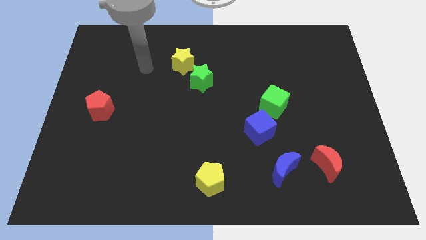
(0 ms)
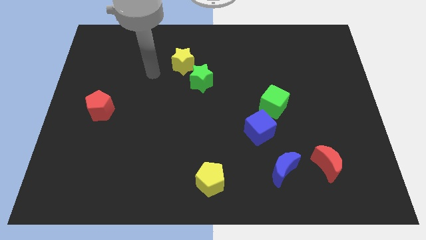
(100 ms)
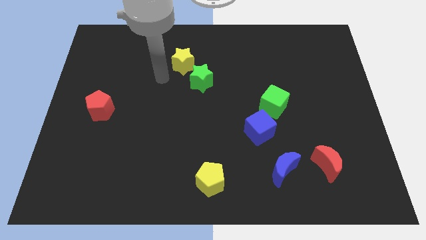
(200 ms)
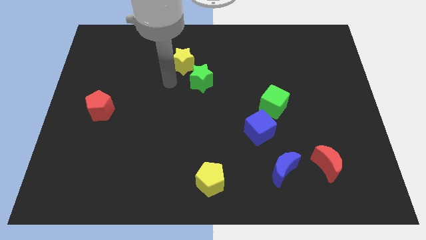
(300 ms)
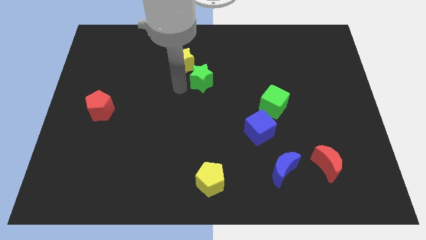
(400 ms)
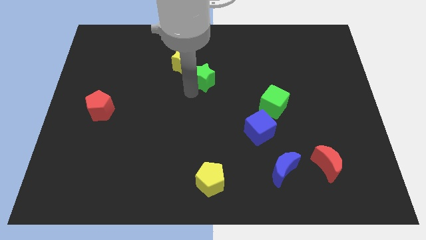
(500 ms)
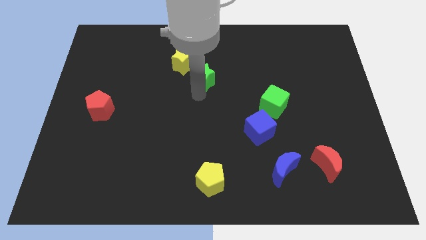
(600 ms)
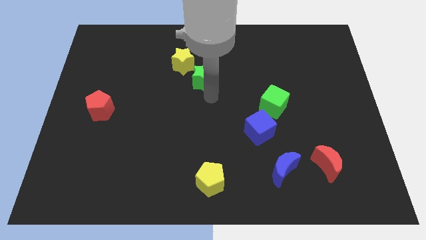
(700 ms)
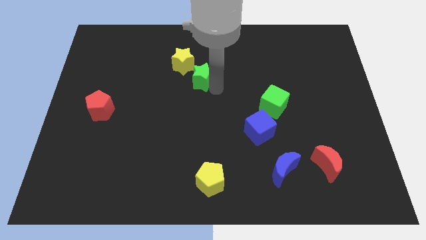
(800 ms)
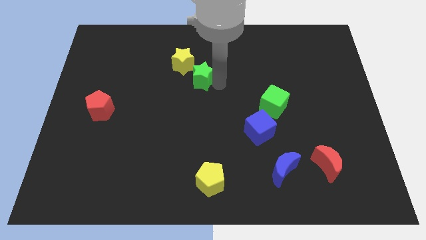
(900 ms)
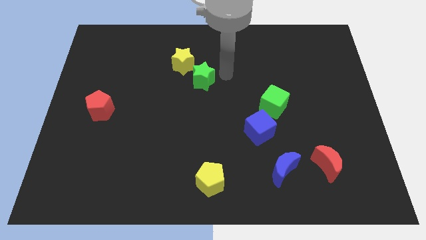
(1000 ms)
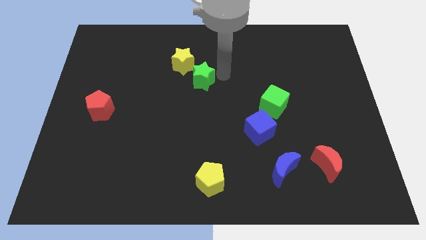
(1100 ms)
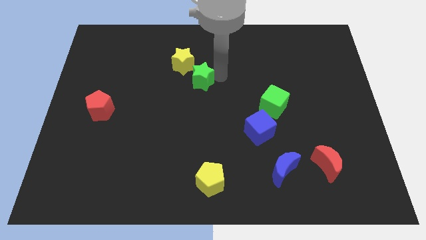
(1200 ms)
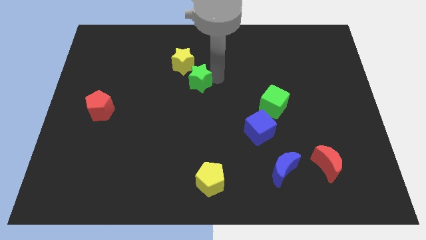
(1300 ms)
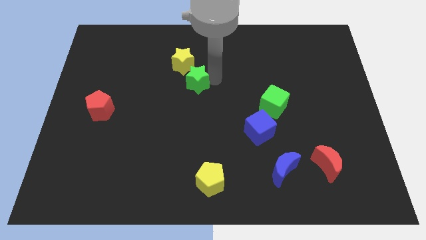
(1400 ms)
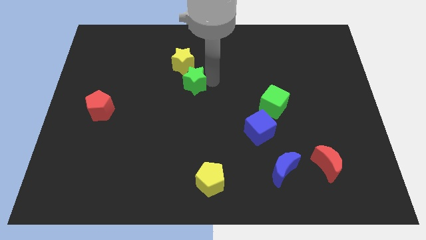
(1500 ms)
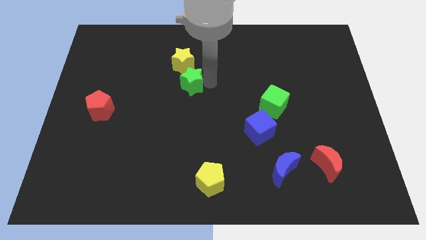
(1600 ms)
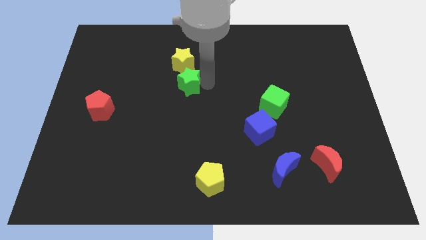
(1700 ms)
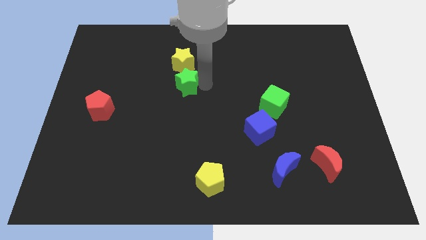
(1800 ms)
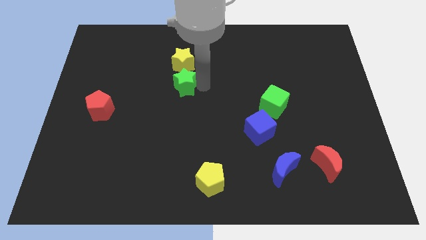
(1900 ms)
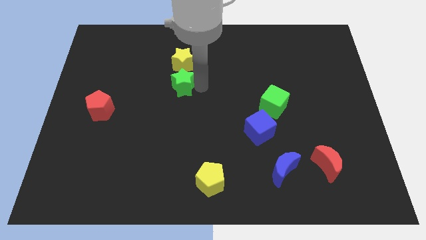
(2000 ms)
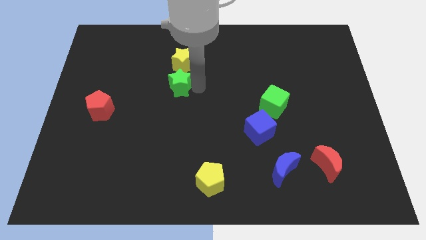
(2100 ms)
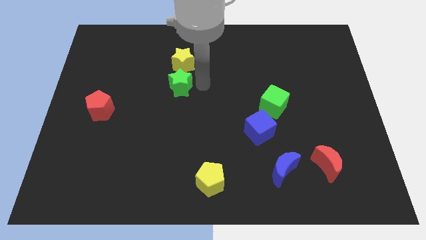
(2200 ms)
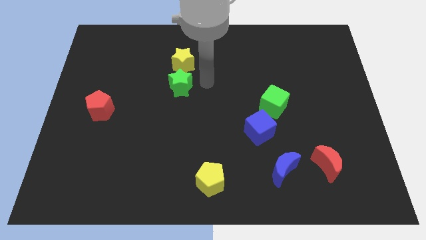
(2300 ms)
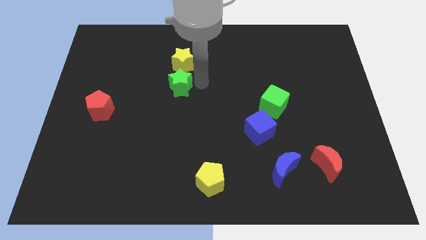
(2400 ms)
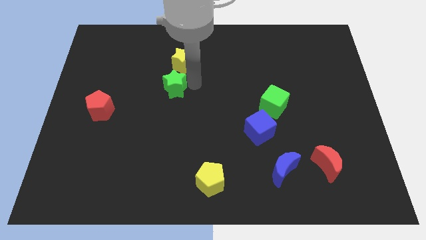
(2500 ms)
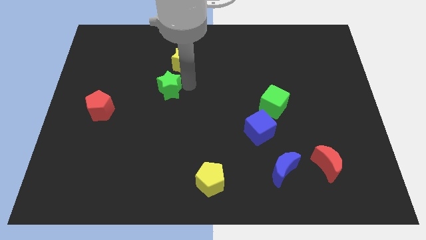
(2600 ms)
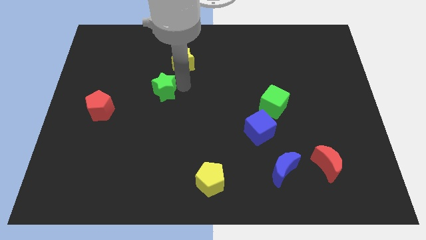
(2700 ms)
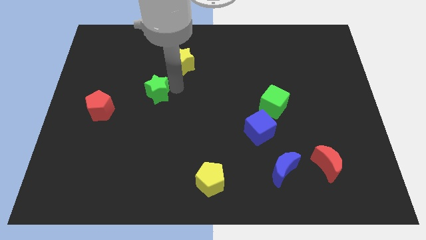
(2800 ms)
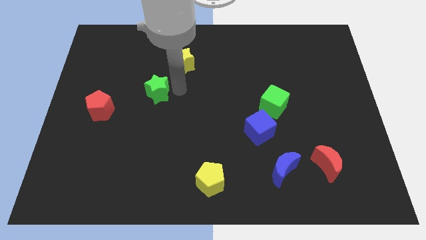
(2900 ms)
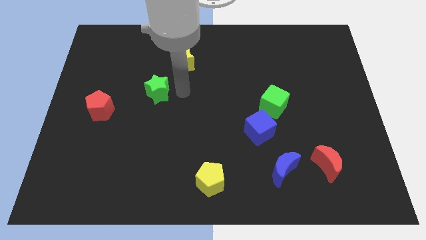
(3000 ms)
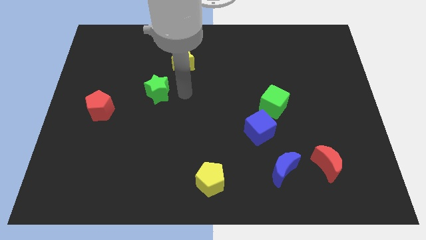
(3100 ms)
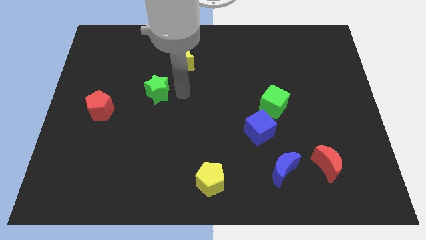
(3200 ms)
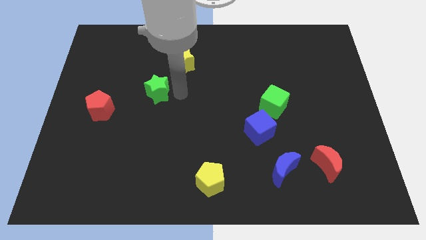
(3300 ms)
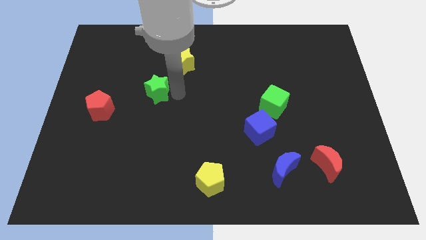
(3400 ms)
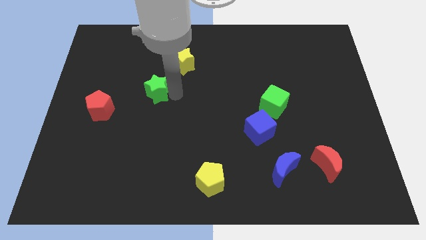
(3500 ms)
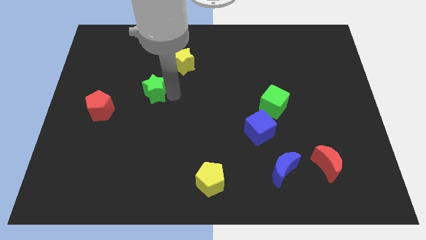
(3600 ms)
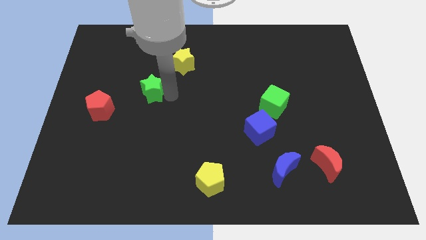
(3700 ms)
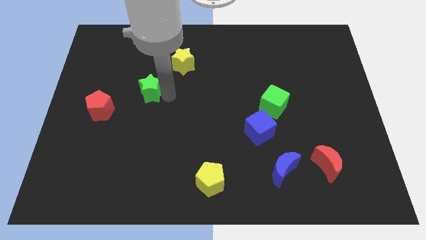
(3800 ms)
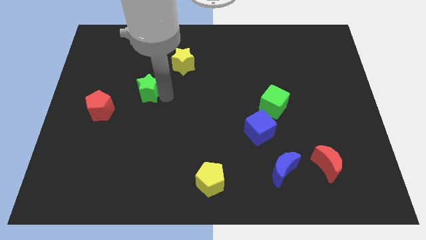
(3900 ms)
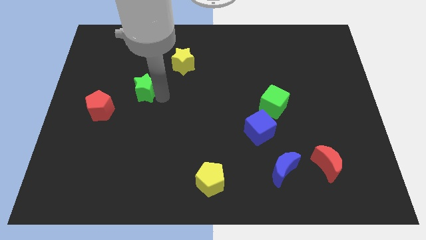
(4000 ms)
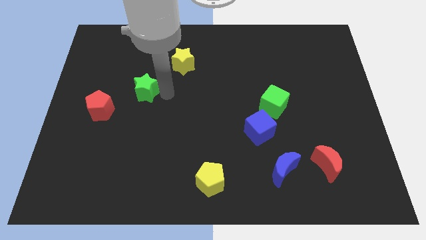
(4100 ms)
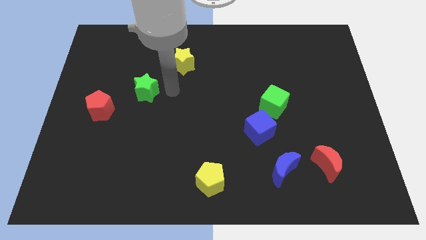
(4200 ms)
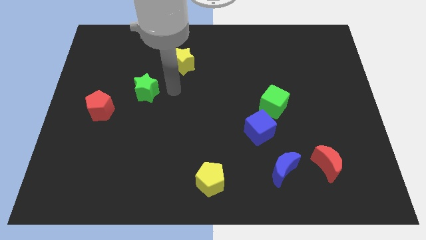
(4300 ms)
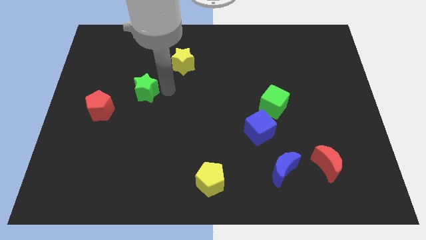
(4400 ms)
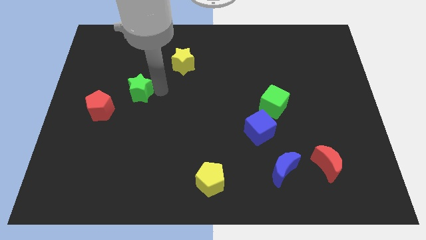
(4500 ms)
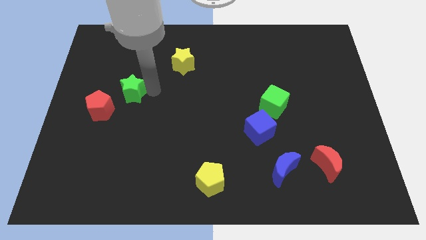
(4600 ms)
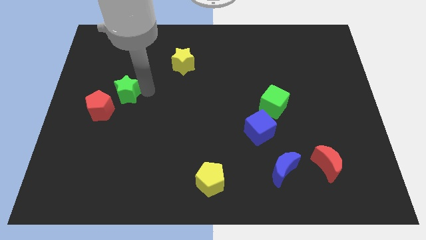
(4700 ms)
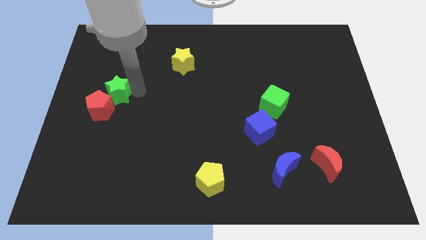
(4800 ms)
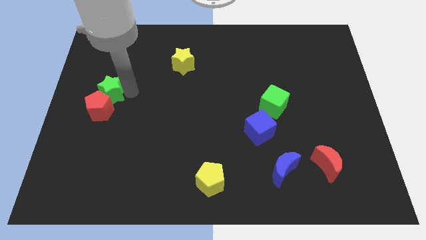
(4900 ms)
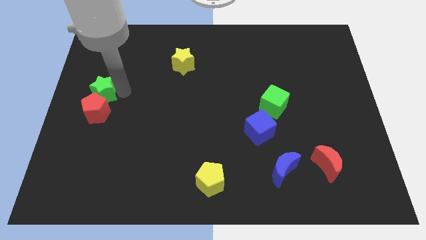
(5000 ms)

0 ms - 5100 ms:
slide the green star to the left side of the board

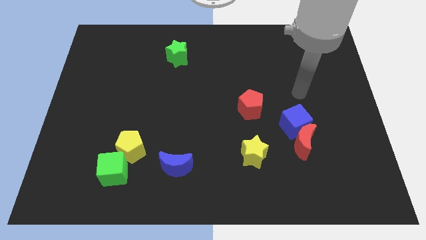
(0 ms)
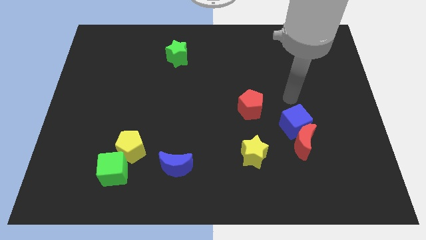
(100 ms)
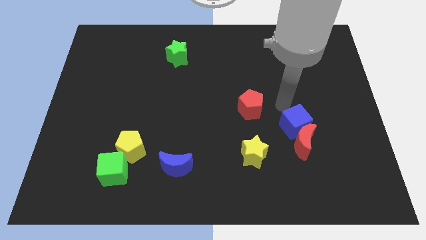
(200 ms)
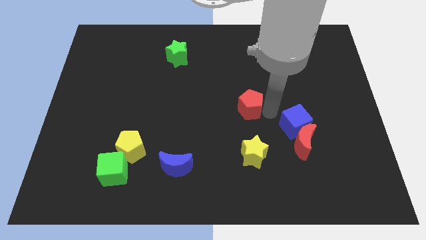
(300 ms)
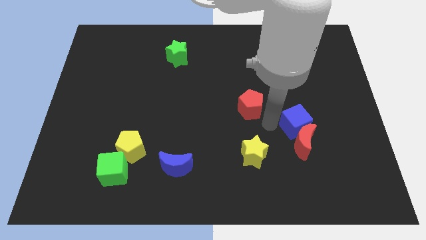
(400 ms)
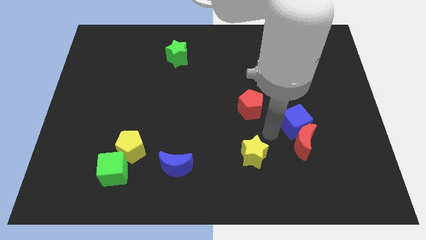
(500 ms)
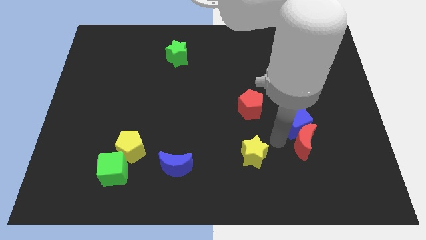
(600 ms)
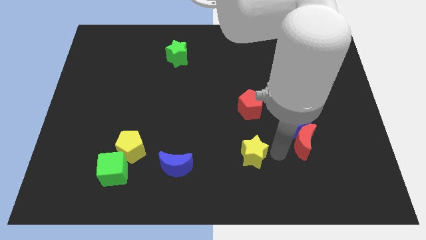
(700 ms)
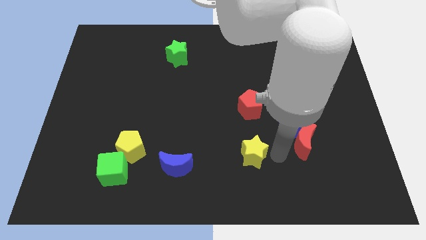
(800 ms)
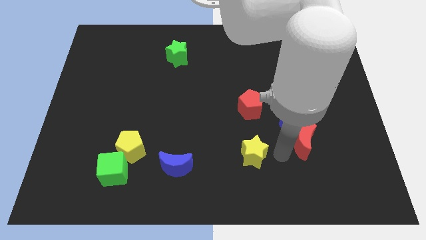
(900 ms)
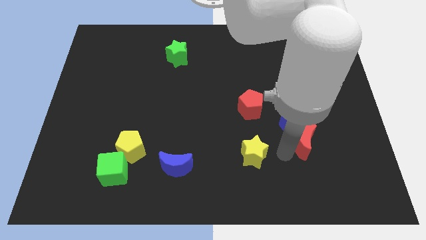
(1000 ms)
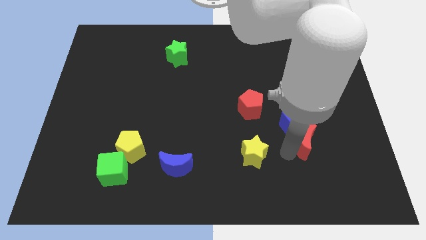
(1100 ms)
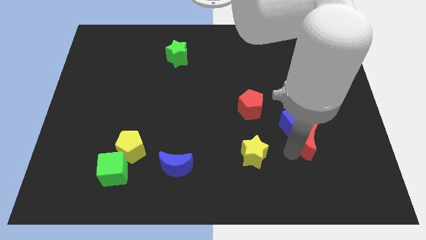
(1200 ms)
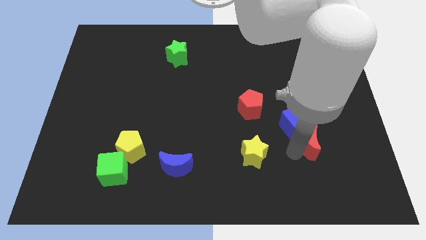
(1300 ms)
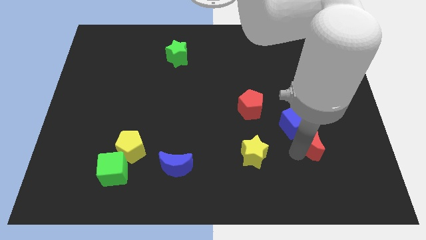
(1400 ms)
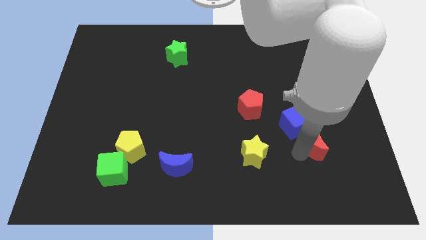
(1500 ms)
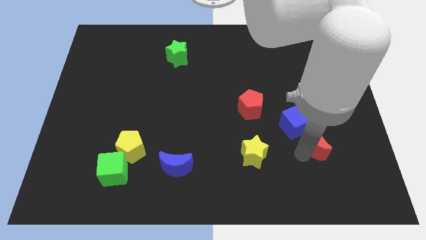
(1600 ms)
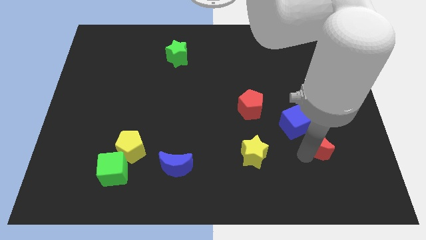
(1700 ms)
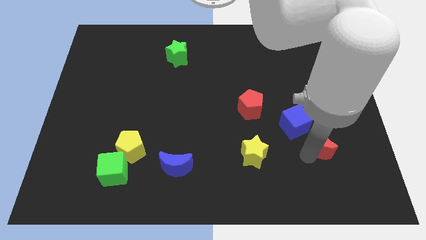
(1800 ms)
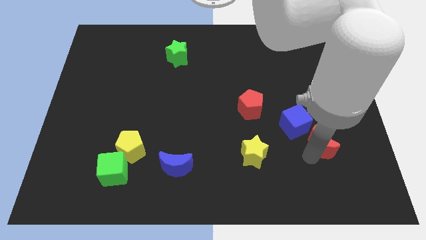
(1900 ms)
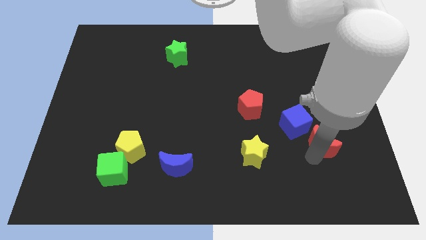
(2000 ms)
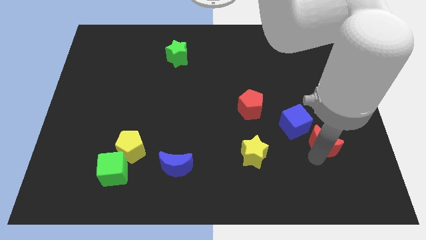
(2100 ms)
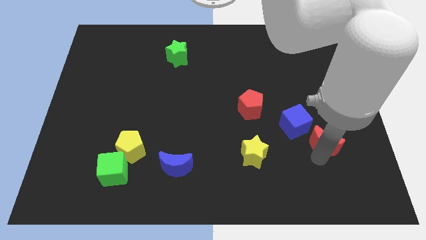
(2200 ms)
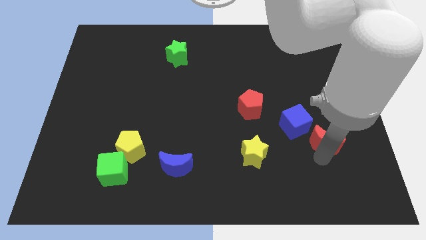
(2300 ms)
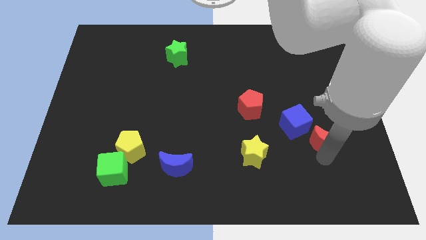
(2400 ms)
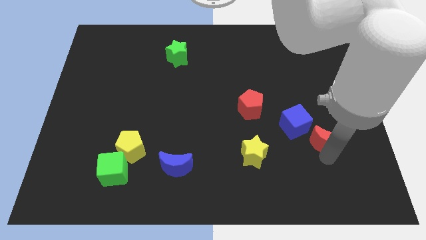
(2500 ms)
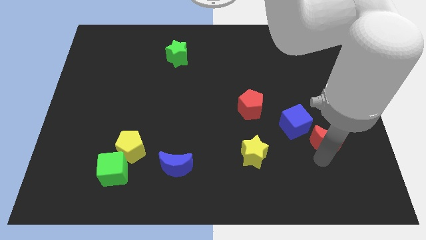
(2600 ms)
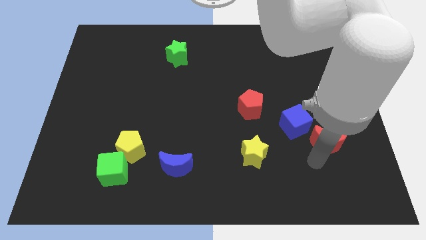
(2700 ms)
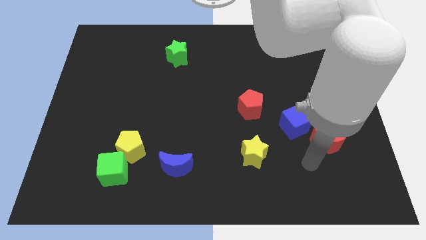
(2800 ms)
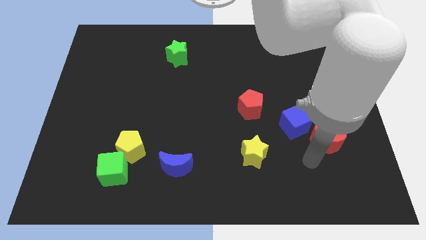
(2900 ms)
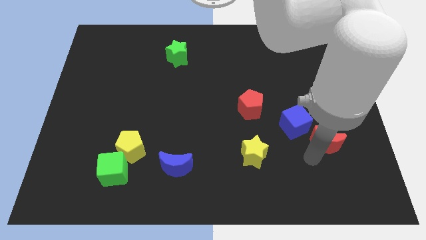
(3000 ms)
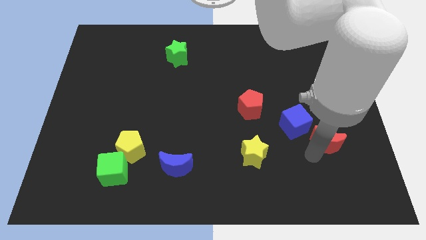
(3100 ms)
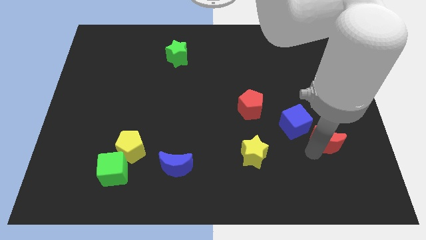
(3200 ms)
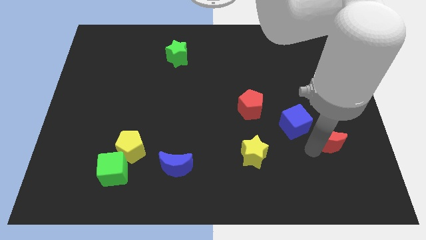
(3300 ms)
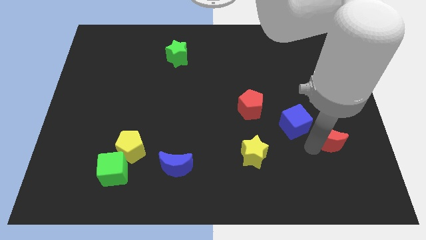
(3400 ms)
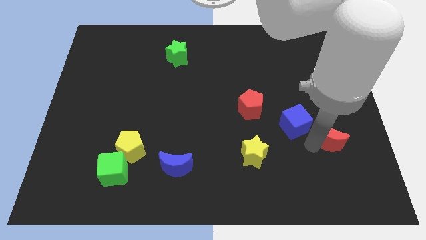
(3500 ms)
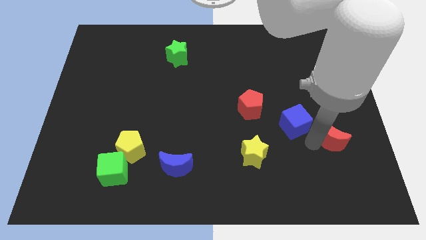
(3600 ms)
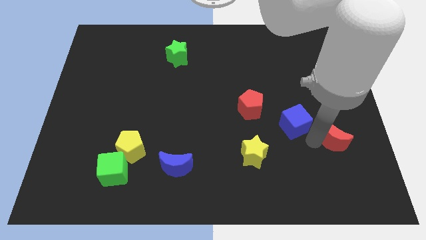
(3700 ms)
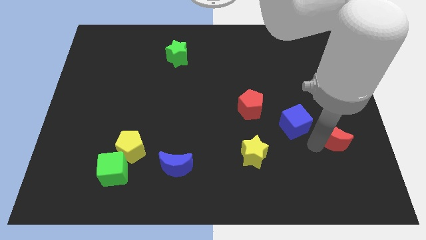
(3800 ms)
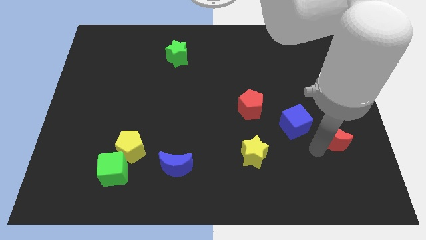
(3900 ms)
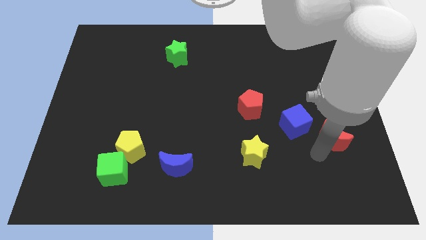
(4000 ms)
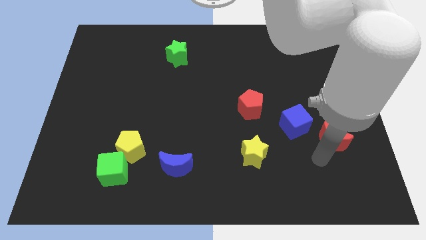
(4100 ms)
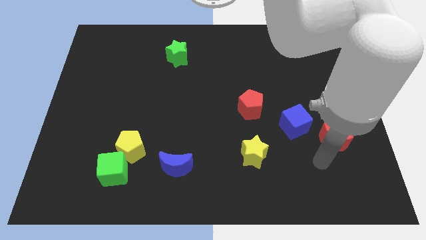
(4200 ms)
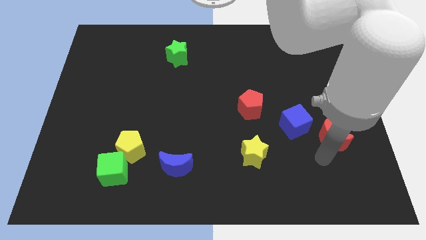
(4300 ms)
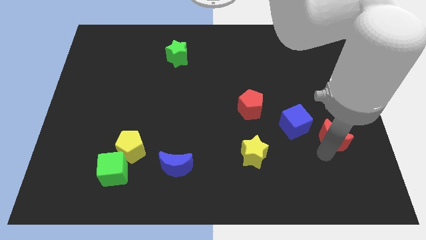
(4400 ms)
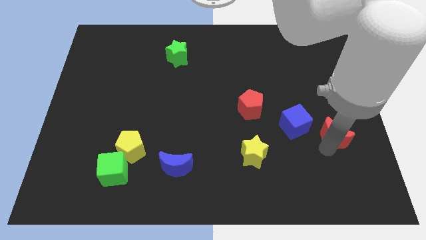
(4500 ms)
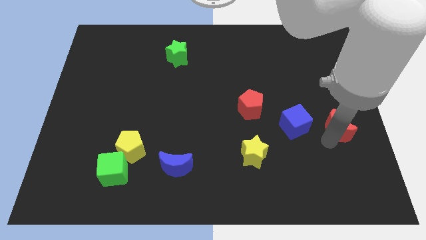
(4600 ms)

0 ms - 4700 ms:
move the red moon to the right side of the board
